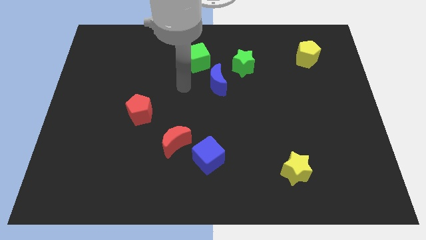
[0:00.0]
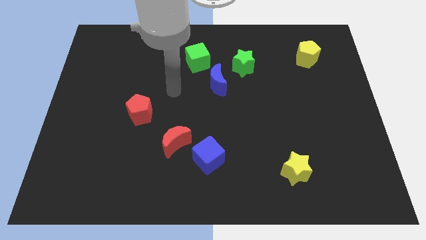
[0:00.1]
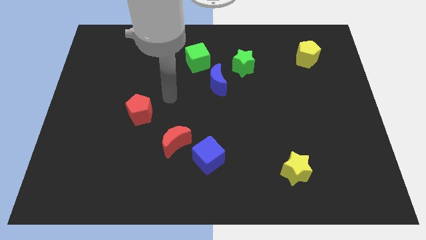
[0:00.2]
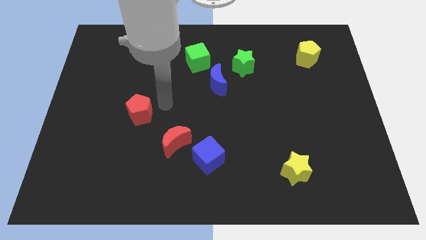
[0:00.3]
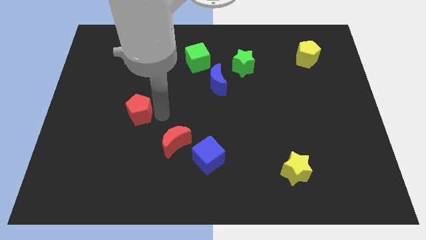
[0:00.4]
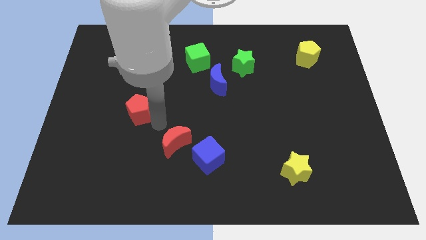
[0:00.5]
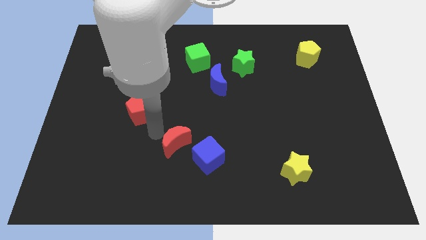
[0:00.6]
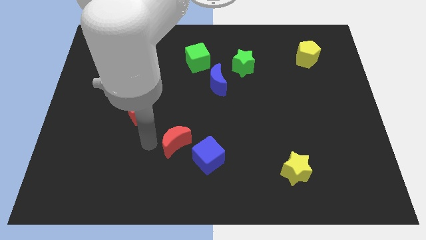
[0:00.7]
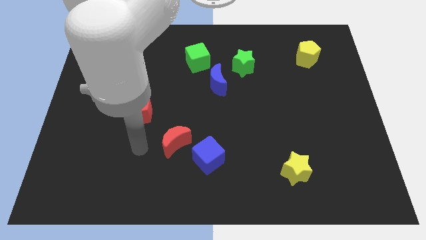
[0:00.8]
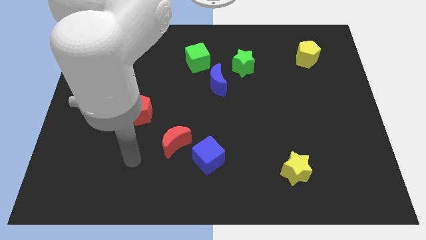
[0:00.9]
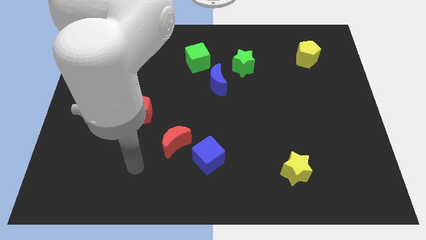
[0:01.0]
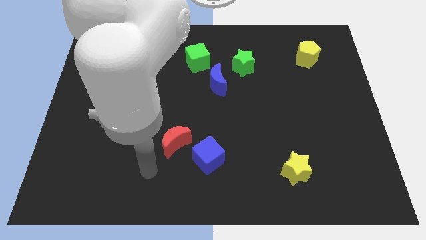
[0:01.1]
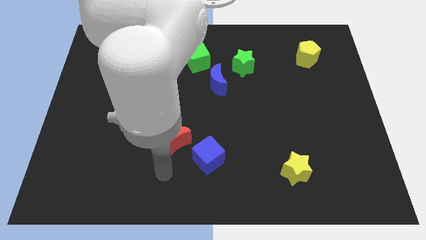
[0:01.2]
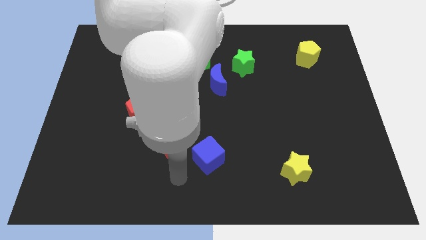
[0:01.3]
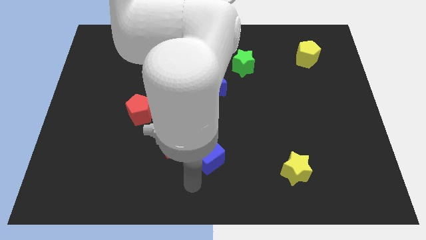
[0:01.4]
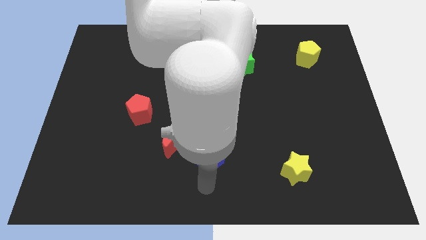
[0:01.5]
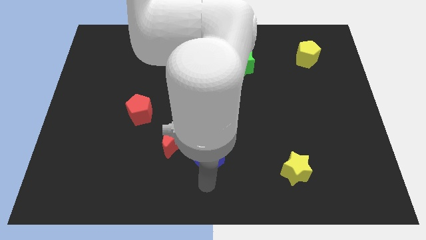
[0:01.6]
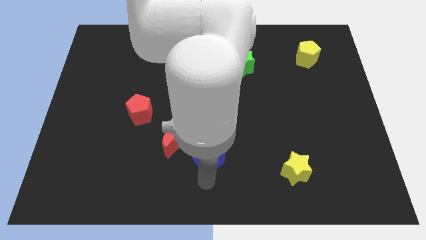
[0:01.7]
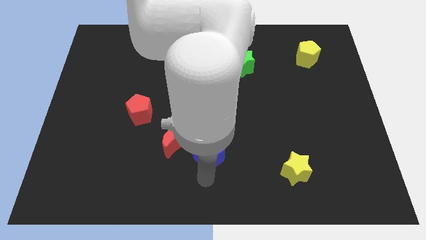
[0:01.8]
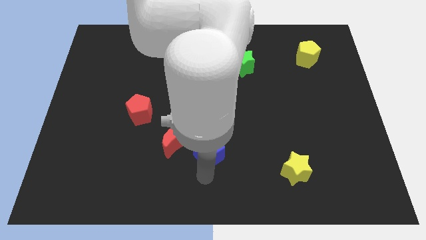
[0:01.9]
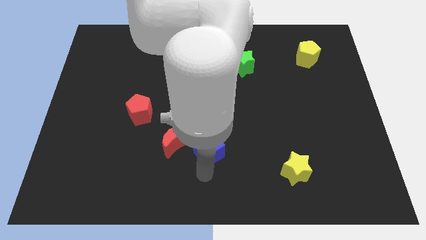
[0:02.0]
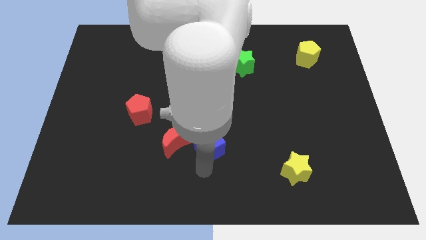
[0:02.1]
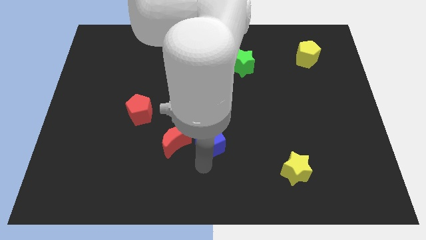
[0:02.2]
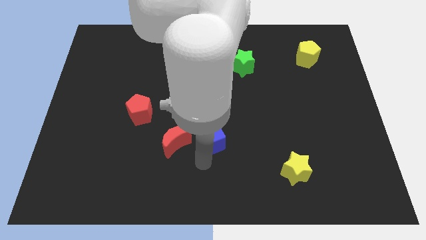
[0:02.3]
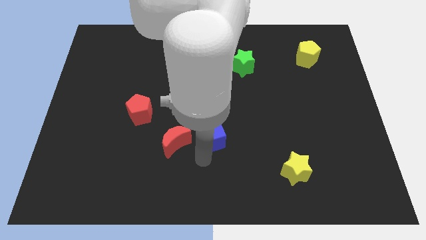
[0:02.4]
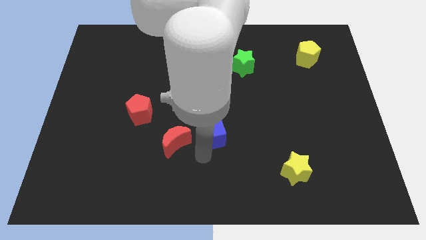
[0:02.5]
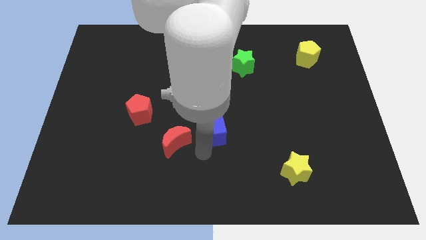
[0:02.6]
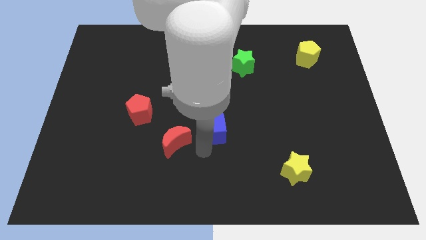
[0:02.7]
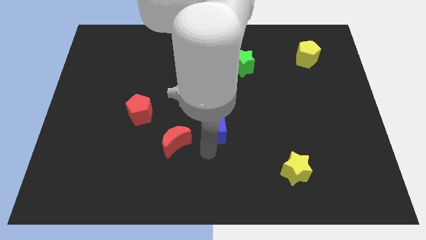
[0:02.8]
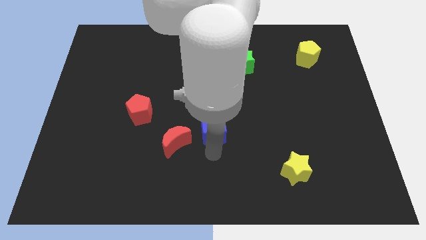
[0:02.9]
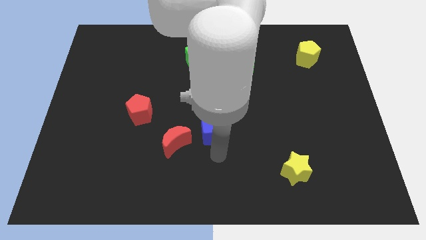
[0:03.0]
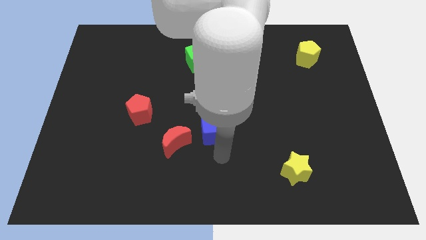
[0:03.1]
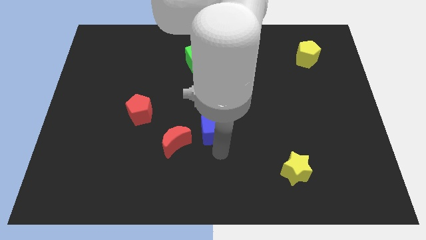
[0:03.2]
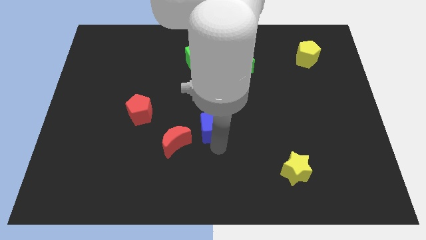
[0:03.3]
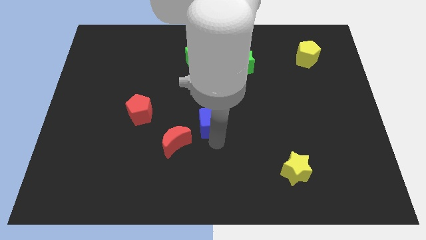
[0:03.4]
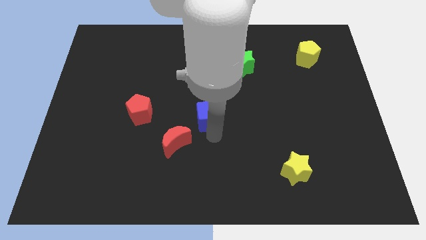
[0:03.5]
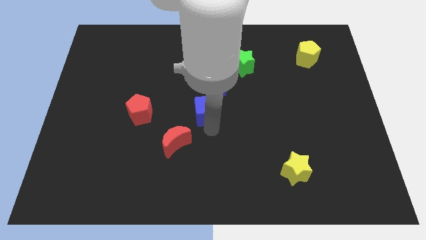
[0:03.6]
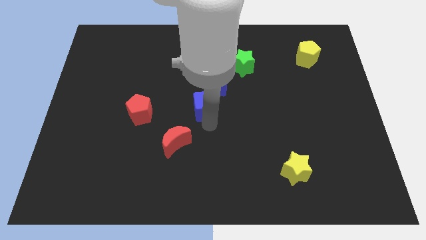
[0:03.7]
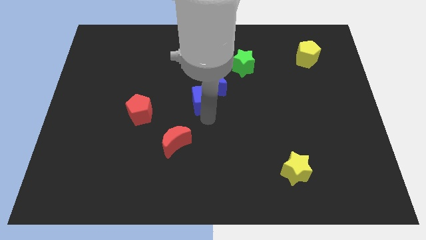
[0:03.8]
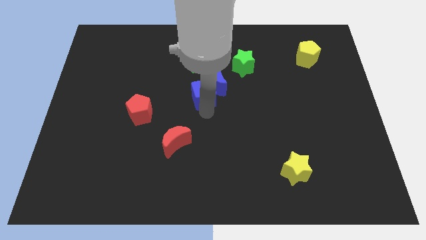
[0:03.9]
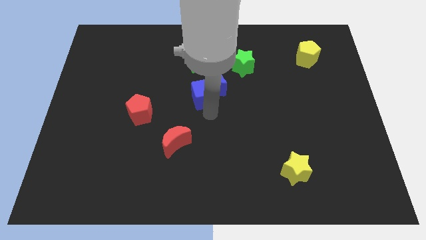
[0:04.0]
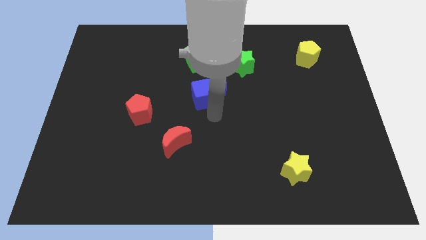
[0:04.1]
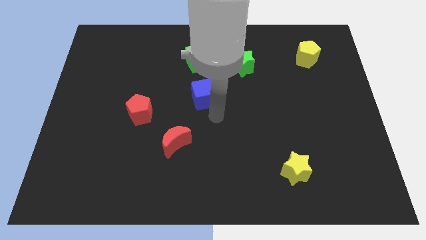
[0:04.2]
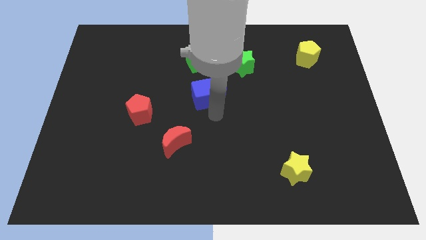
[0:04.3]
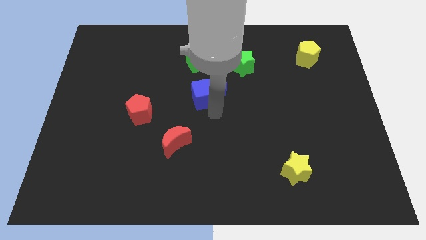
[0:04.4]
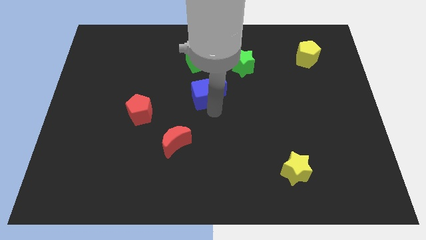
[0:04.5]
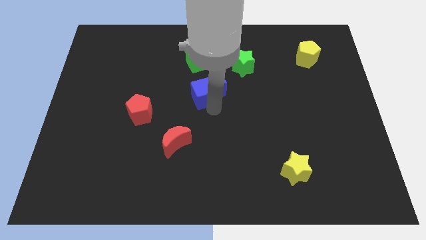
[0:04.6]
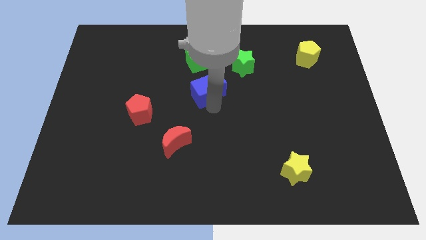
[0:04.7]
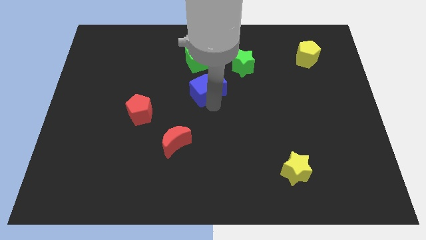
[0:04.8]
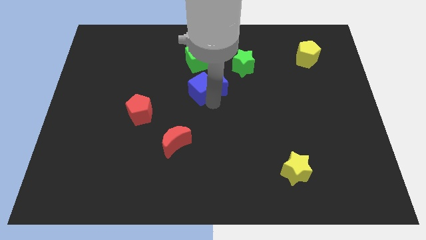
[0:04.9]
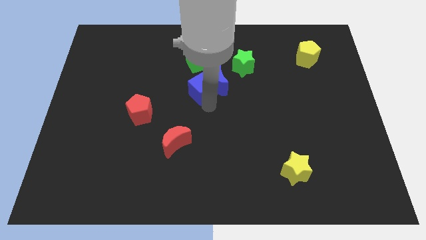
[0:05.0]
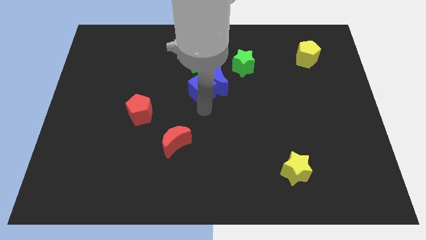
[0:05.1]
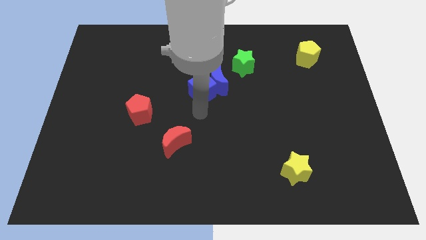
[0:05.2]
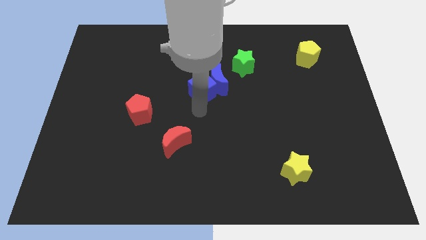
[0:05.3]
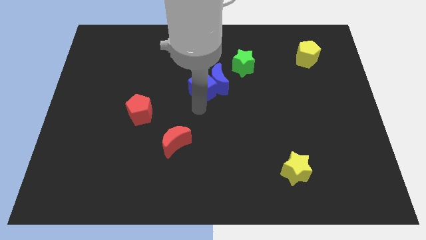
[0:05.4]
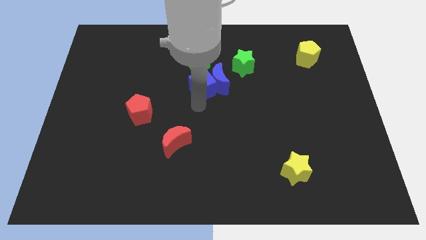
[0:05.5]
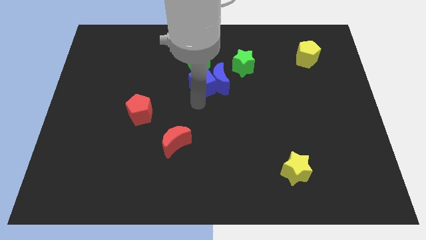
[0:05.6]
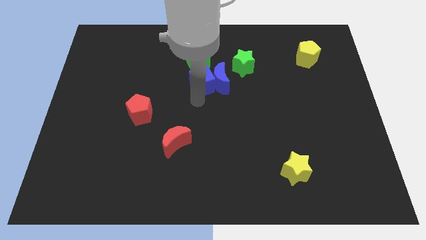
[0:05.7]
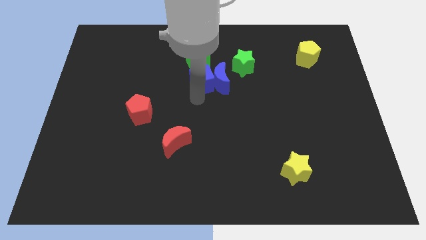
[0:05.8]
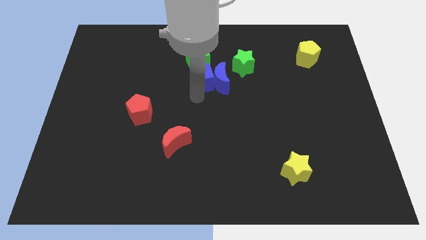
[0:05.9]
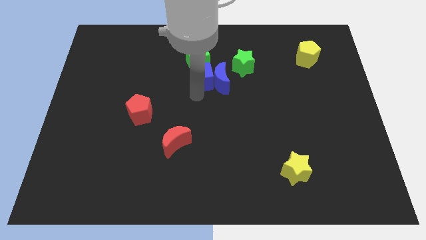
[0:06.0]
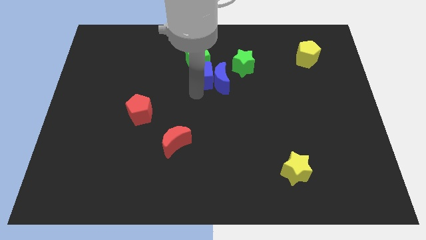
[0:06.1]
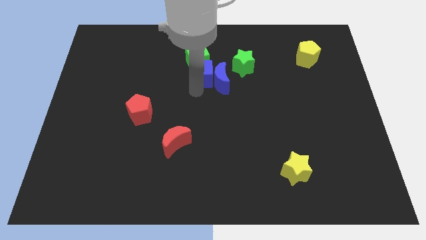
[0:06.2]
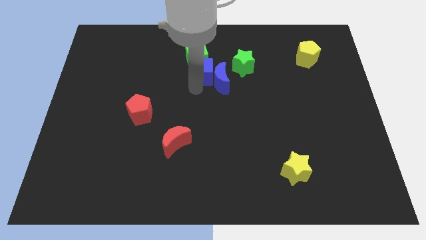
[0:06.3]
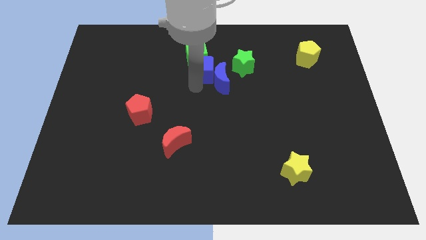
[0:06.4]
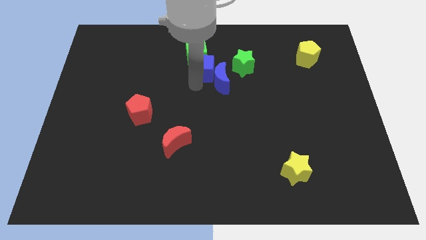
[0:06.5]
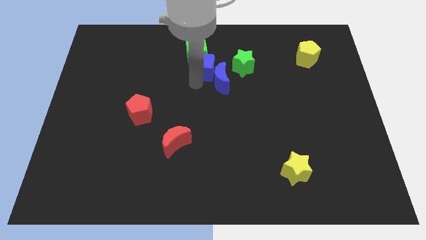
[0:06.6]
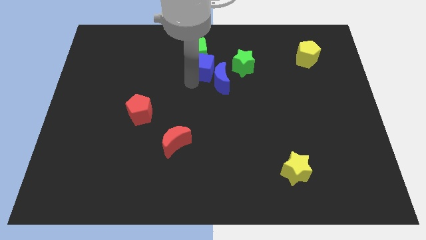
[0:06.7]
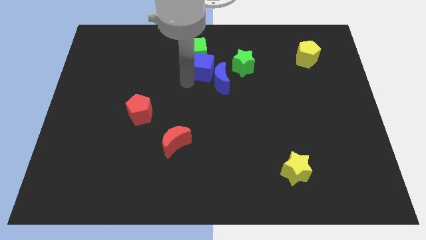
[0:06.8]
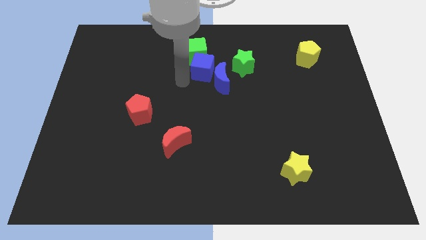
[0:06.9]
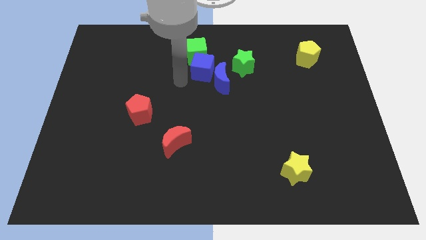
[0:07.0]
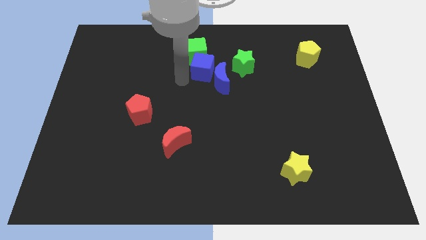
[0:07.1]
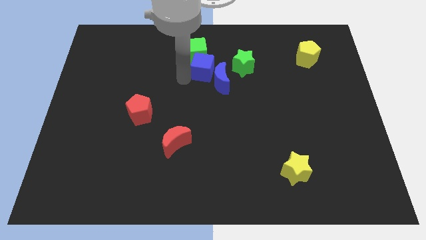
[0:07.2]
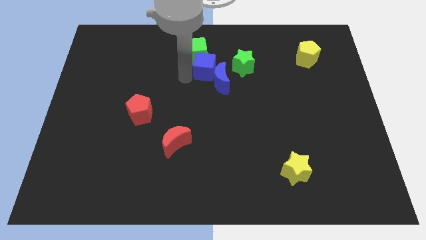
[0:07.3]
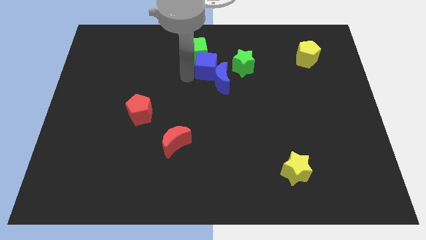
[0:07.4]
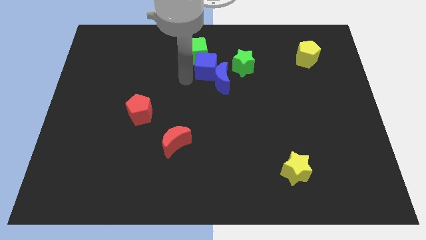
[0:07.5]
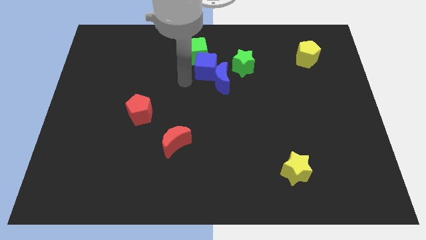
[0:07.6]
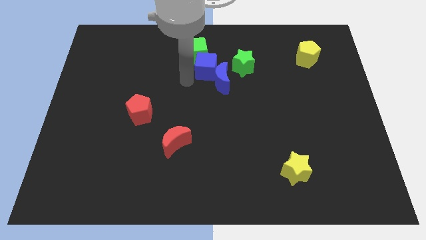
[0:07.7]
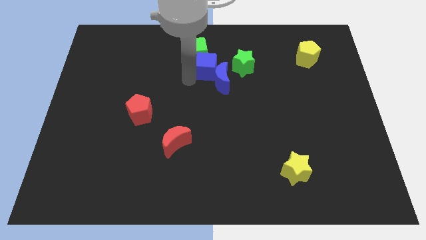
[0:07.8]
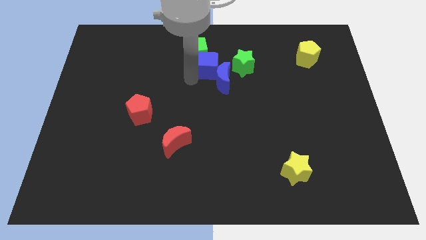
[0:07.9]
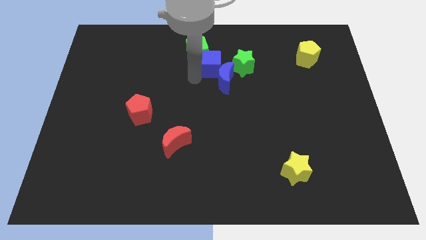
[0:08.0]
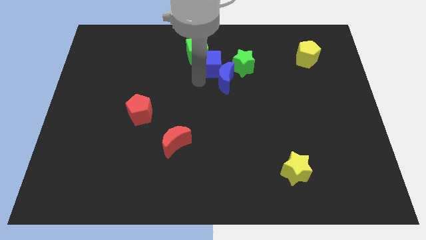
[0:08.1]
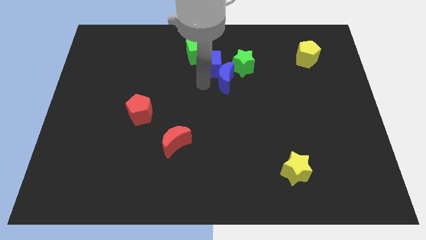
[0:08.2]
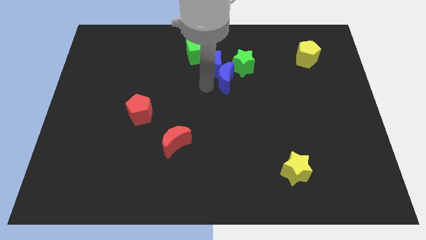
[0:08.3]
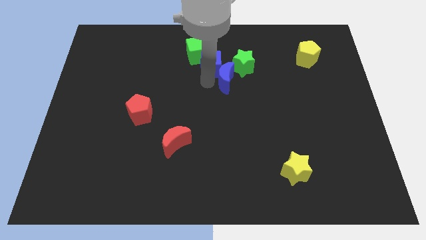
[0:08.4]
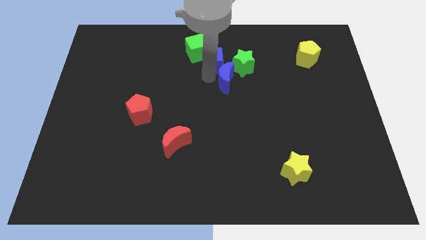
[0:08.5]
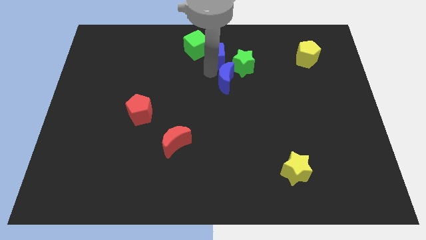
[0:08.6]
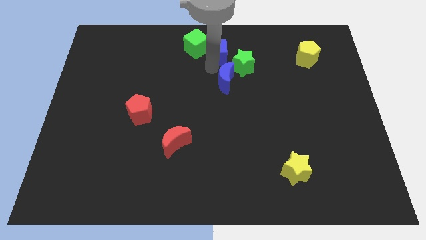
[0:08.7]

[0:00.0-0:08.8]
slide the blue cube to the top
